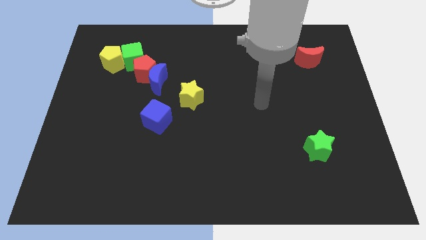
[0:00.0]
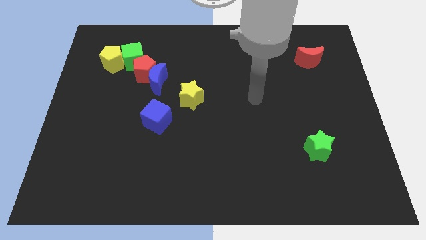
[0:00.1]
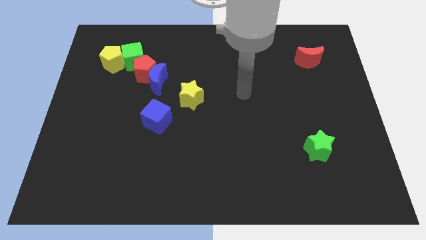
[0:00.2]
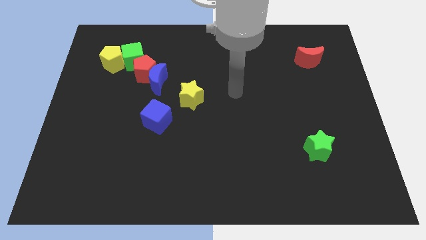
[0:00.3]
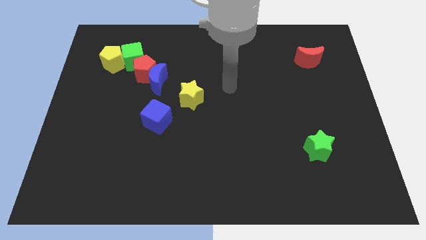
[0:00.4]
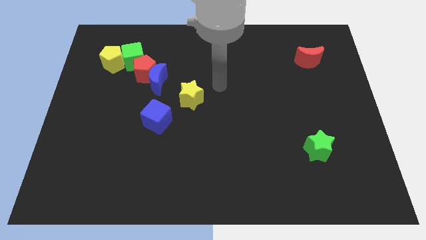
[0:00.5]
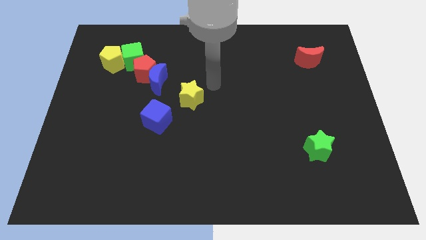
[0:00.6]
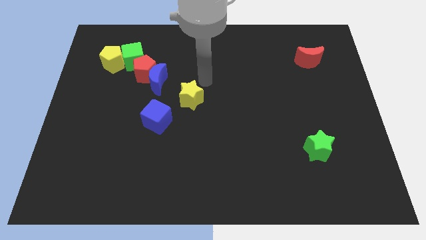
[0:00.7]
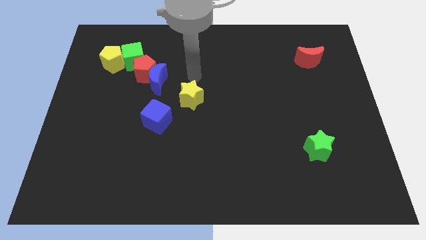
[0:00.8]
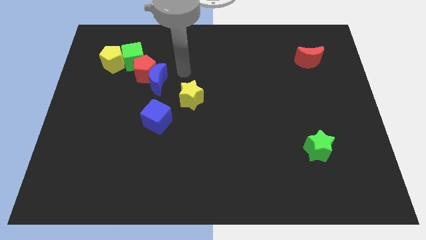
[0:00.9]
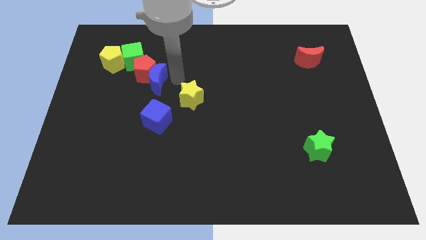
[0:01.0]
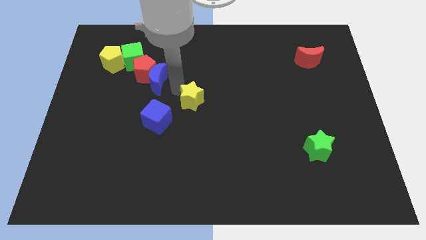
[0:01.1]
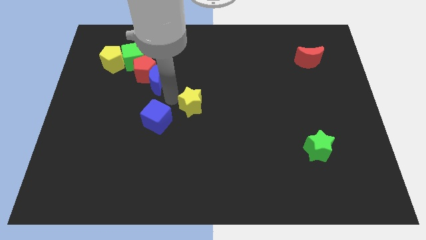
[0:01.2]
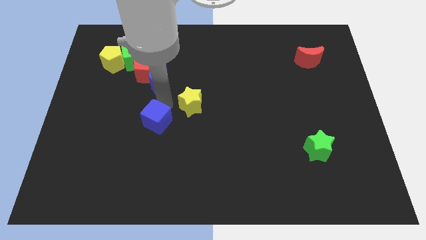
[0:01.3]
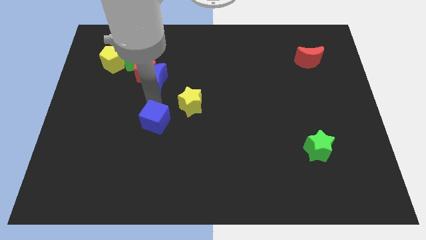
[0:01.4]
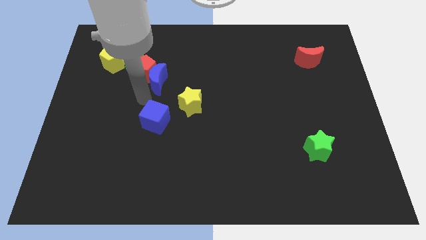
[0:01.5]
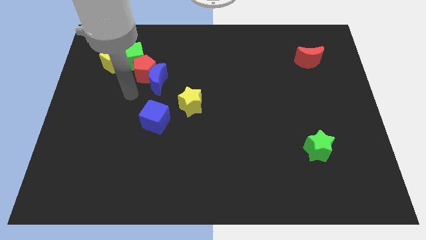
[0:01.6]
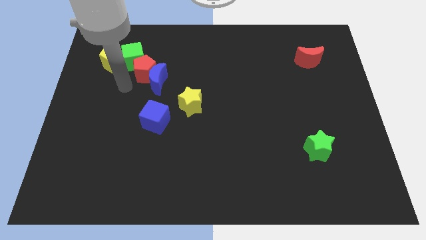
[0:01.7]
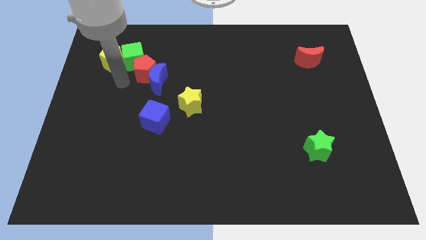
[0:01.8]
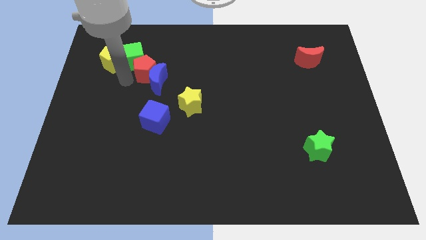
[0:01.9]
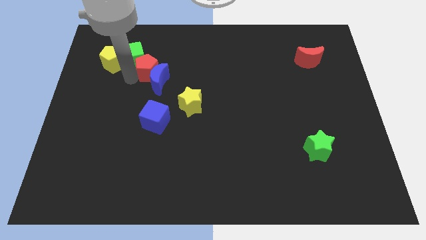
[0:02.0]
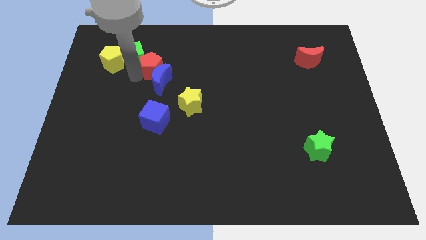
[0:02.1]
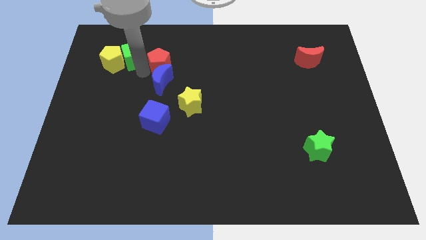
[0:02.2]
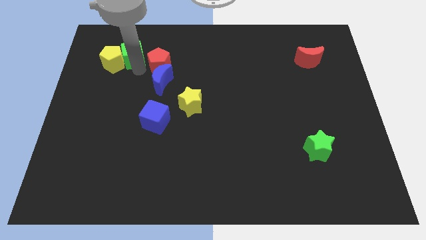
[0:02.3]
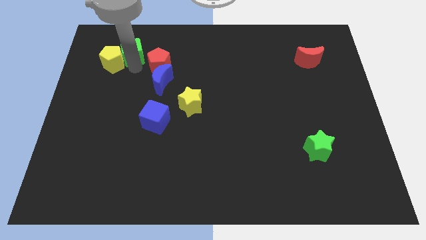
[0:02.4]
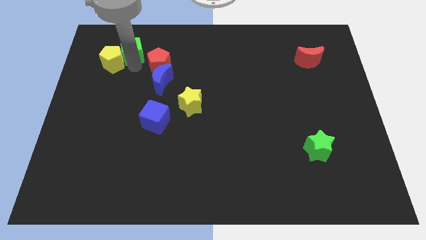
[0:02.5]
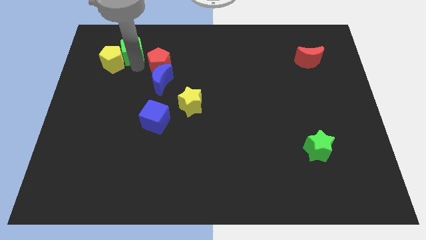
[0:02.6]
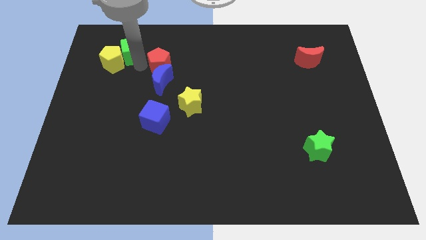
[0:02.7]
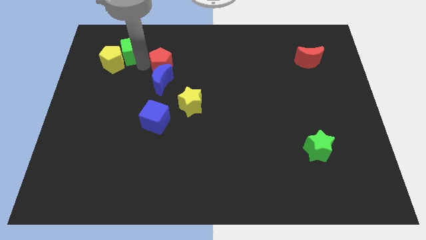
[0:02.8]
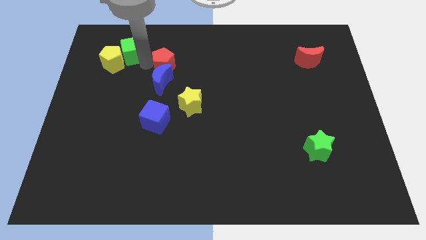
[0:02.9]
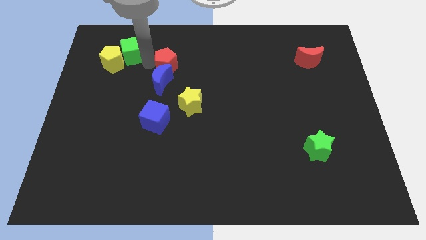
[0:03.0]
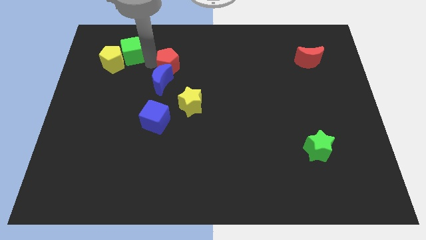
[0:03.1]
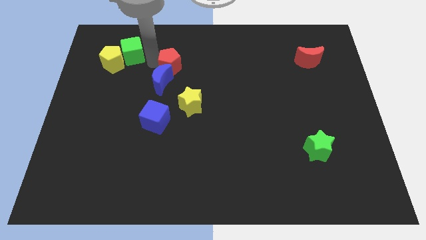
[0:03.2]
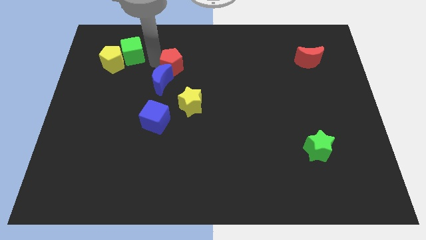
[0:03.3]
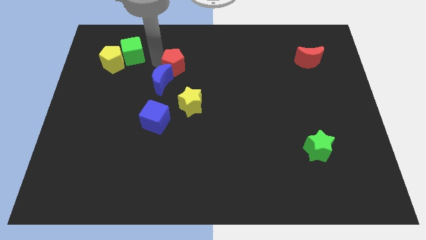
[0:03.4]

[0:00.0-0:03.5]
separate the red pentagon from the blue moon, green cube, and yellow pentagon

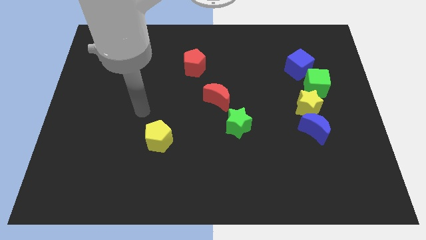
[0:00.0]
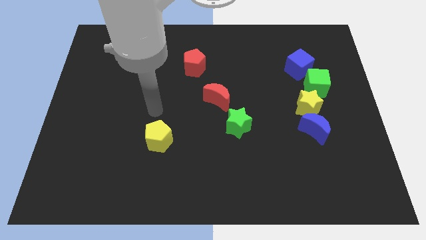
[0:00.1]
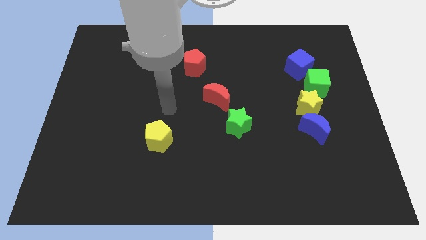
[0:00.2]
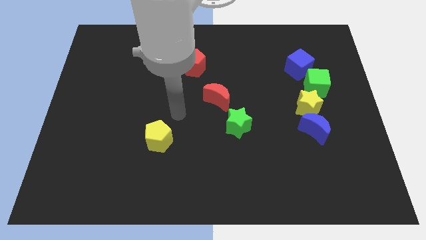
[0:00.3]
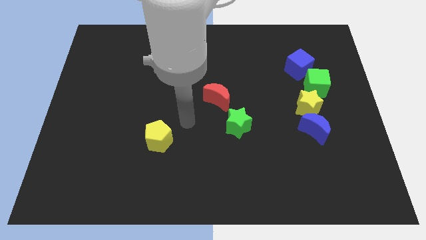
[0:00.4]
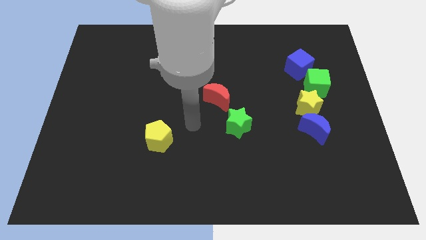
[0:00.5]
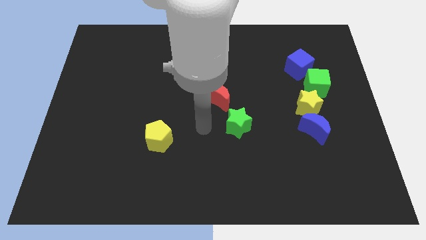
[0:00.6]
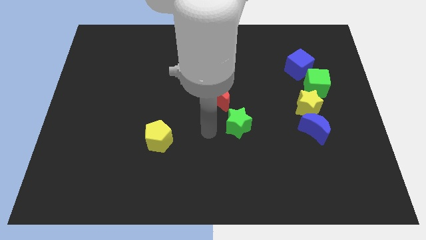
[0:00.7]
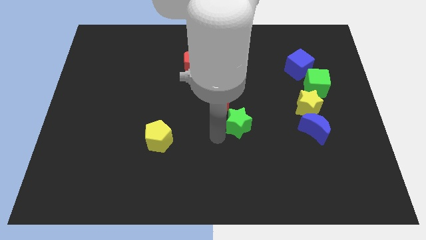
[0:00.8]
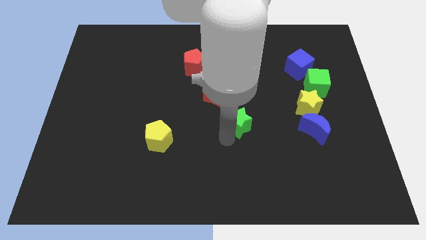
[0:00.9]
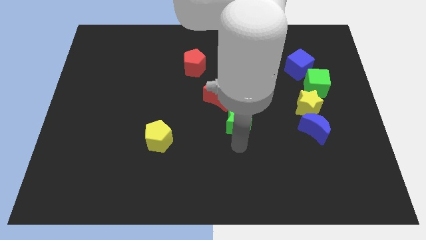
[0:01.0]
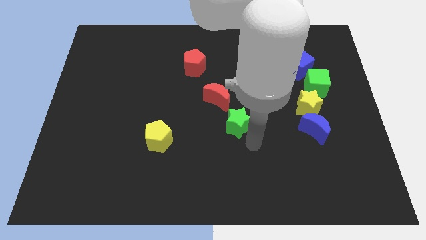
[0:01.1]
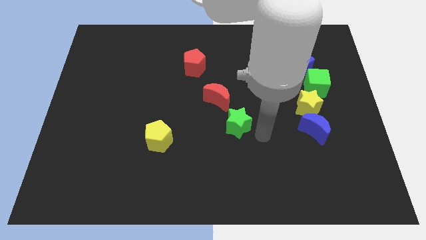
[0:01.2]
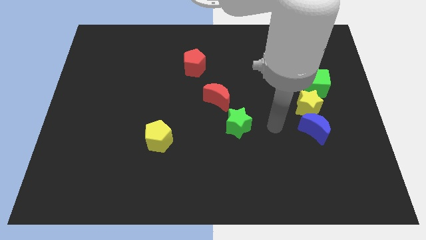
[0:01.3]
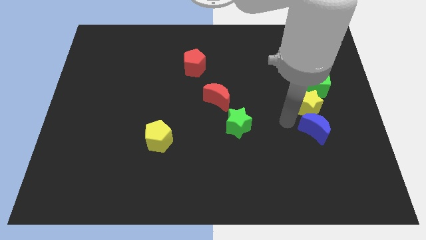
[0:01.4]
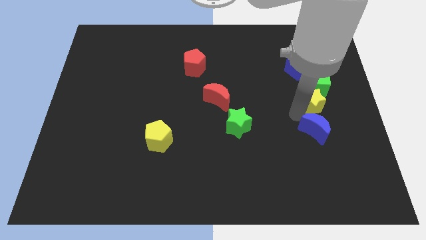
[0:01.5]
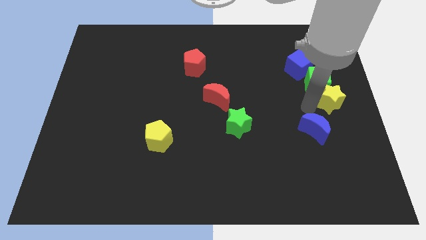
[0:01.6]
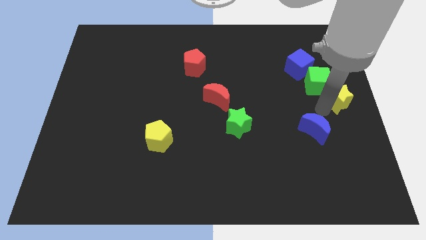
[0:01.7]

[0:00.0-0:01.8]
move the blue moon away from the yellow star

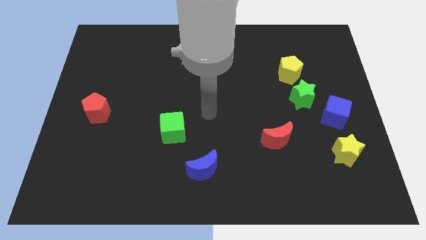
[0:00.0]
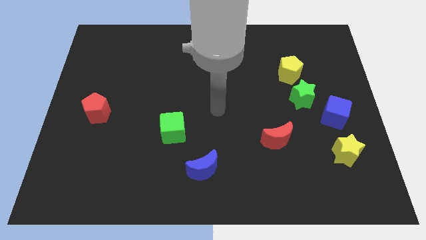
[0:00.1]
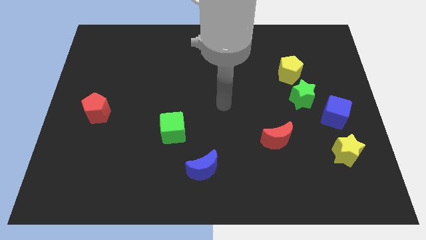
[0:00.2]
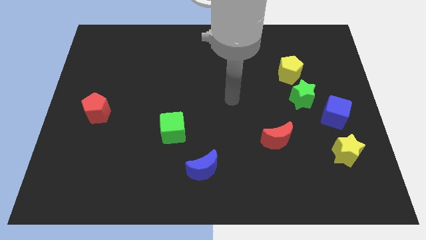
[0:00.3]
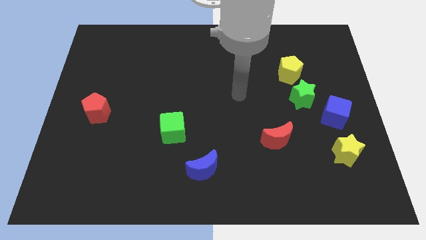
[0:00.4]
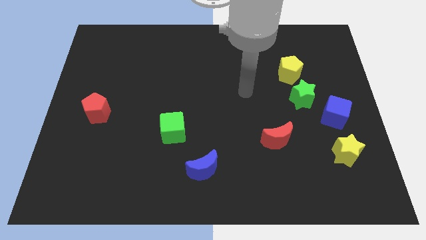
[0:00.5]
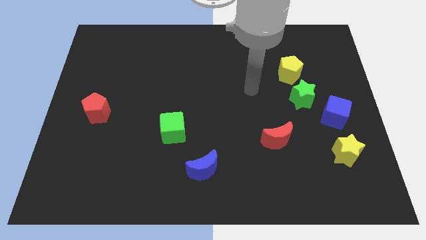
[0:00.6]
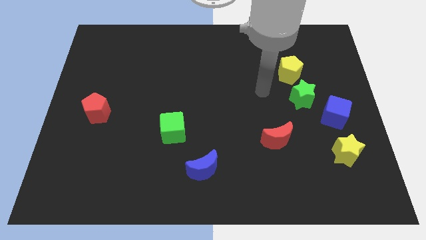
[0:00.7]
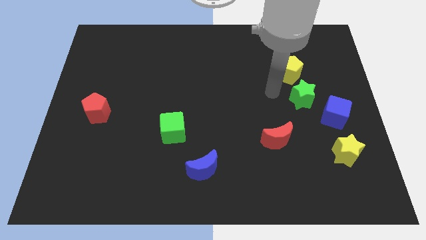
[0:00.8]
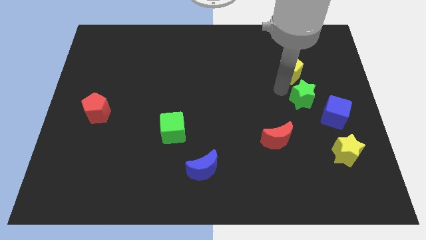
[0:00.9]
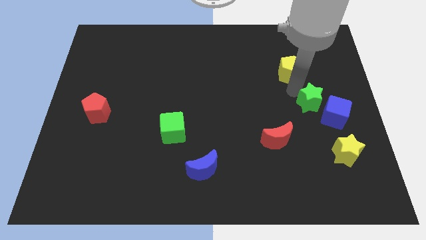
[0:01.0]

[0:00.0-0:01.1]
separate the yellow pentagon from the green star

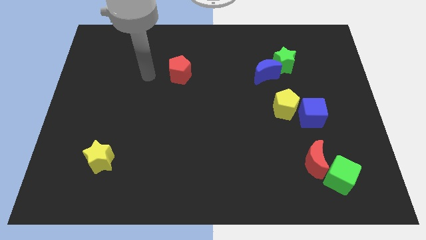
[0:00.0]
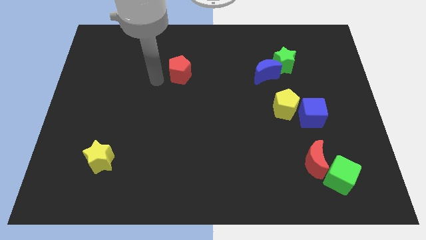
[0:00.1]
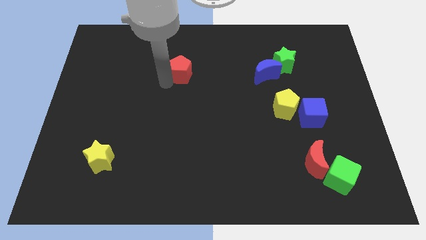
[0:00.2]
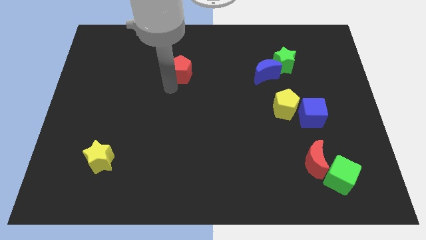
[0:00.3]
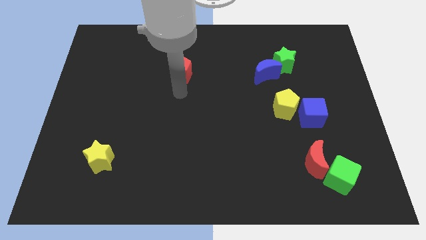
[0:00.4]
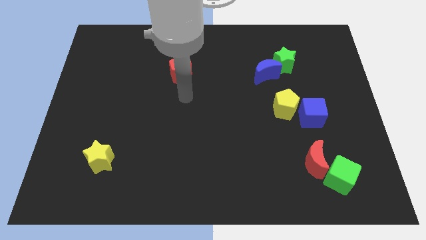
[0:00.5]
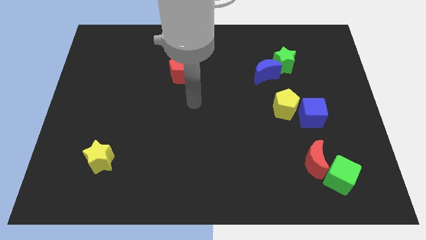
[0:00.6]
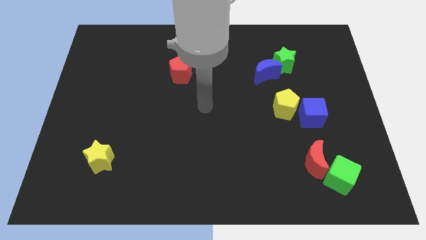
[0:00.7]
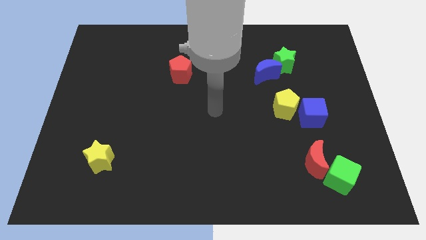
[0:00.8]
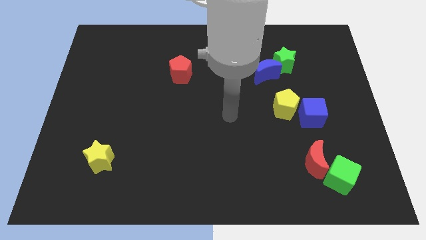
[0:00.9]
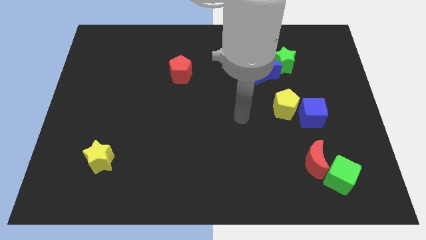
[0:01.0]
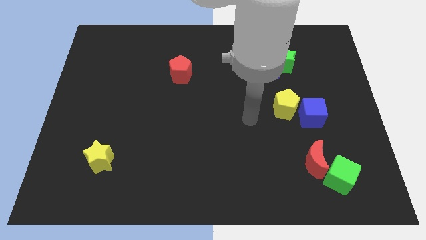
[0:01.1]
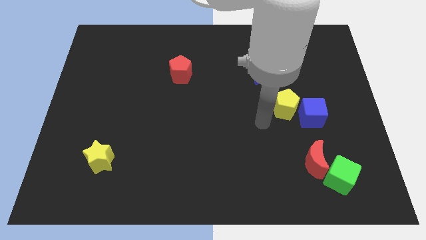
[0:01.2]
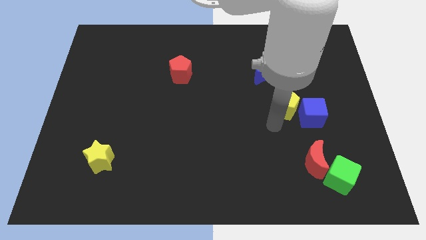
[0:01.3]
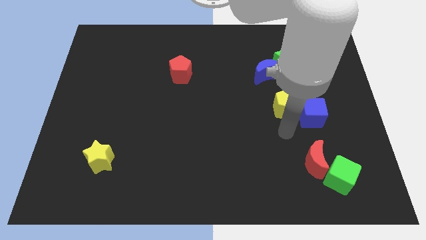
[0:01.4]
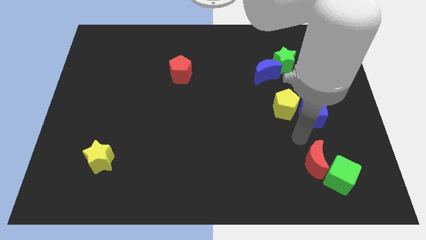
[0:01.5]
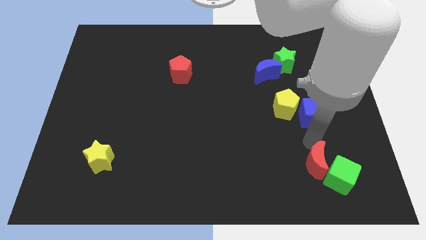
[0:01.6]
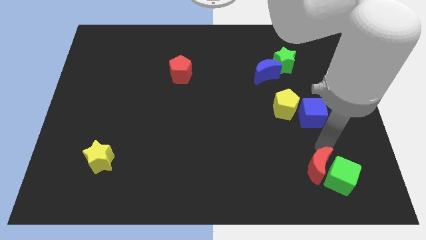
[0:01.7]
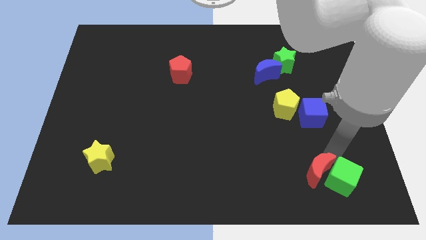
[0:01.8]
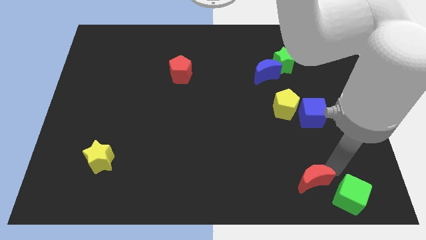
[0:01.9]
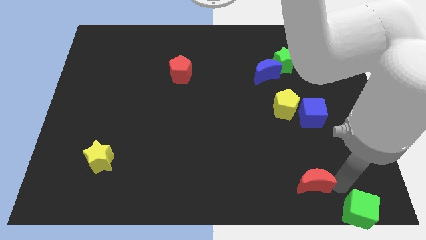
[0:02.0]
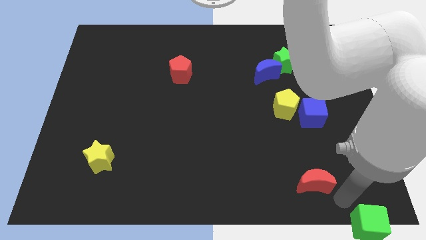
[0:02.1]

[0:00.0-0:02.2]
separate the red moon from the green cube

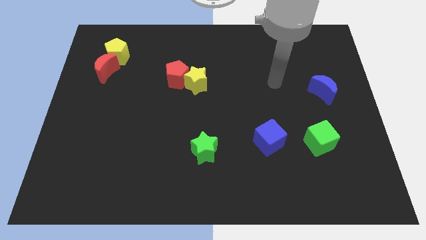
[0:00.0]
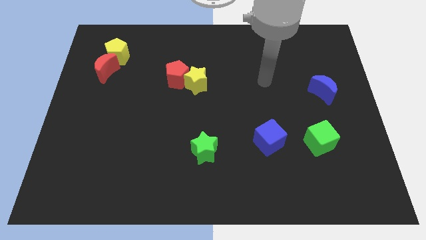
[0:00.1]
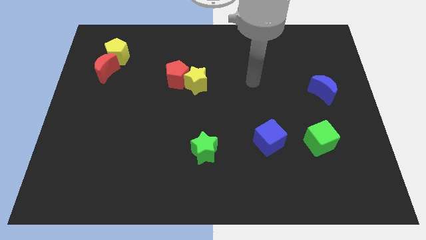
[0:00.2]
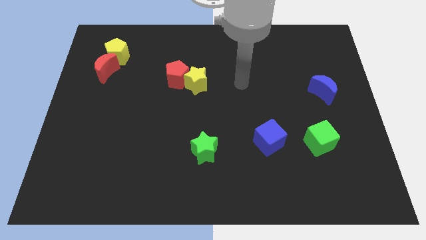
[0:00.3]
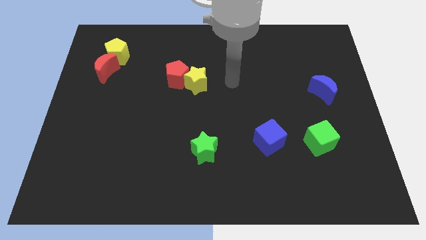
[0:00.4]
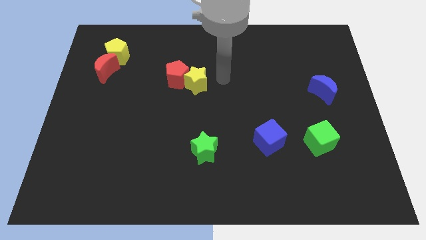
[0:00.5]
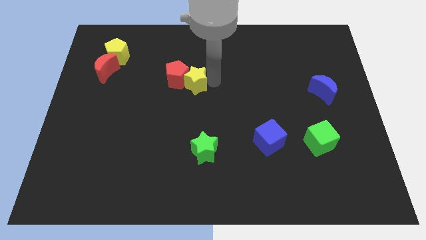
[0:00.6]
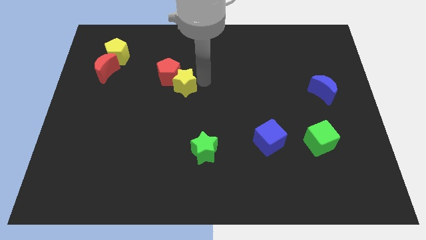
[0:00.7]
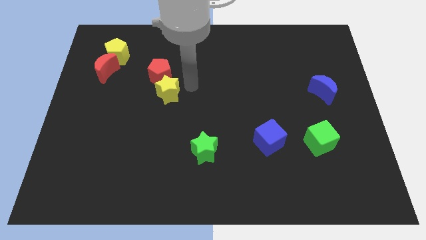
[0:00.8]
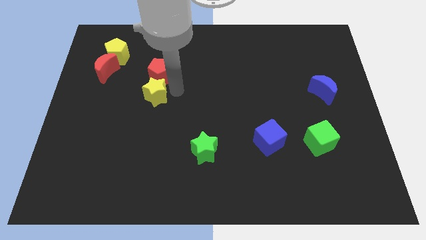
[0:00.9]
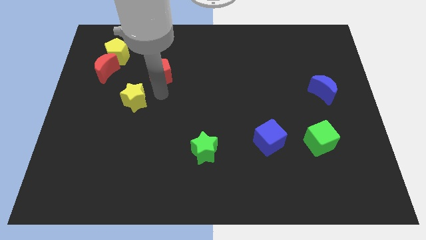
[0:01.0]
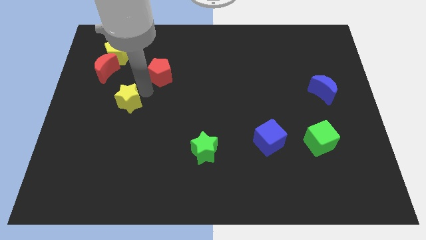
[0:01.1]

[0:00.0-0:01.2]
pull the red pentagon apart from the yellow star
